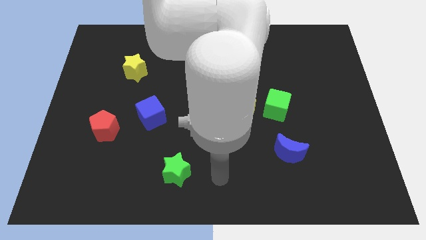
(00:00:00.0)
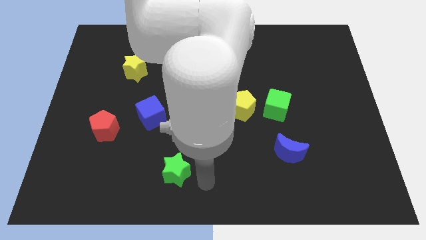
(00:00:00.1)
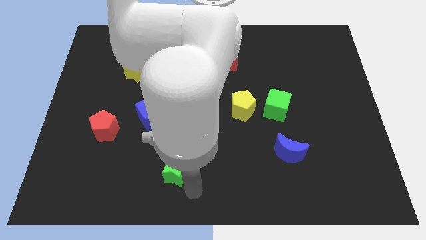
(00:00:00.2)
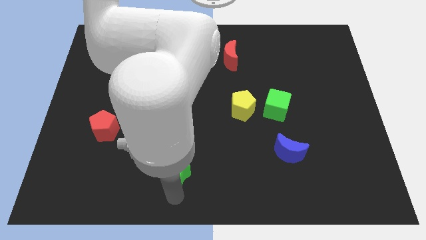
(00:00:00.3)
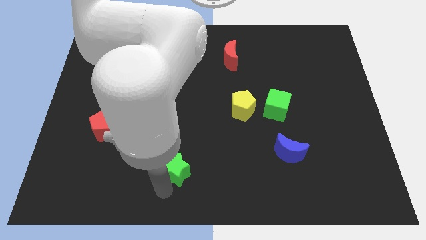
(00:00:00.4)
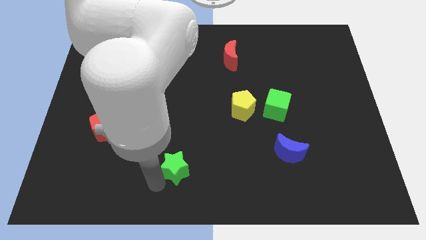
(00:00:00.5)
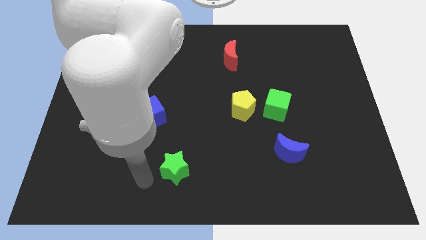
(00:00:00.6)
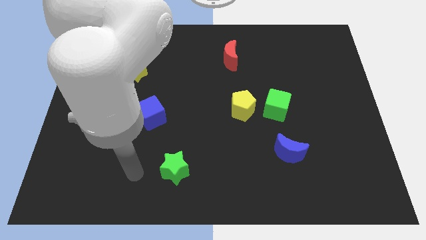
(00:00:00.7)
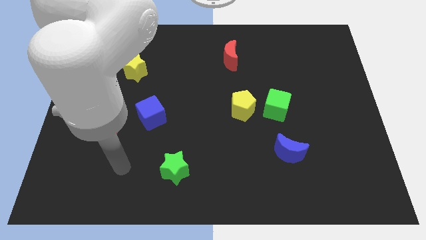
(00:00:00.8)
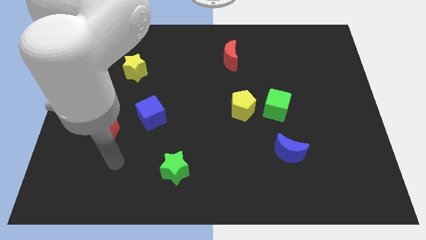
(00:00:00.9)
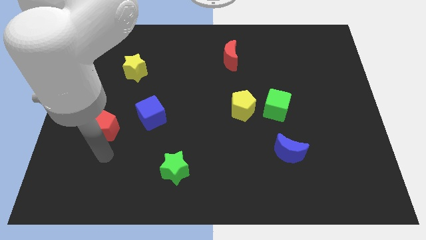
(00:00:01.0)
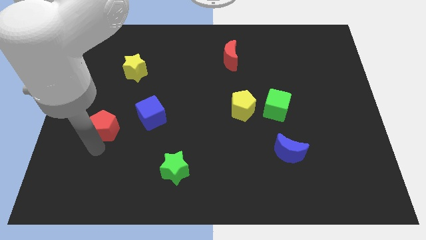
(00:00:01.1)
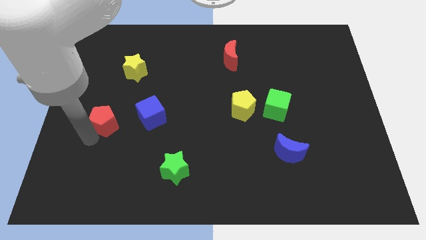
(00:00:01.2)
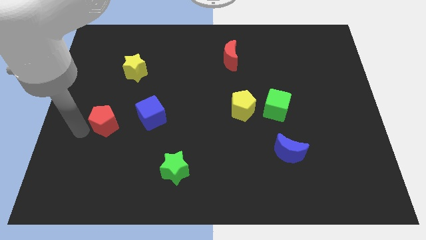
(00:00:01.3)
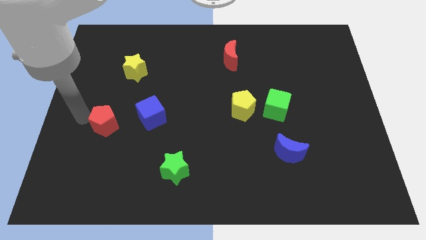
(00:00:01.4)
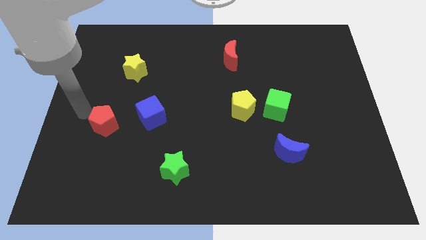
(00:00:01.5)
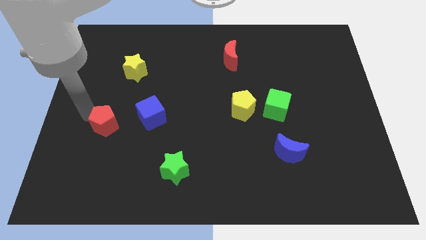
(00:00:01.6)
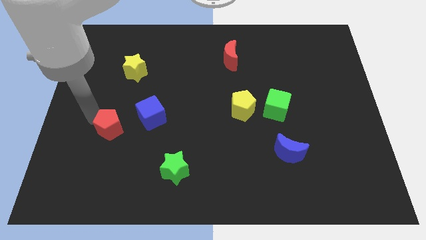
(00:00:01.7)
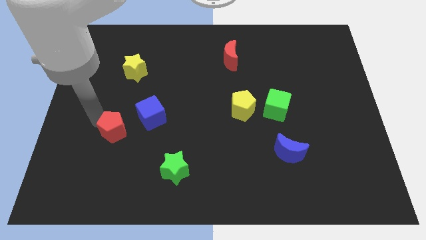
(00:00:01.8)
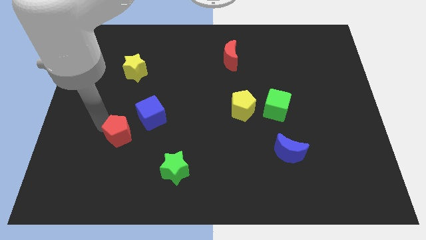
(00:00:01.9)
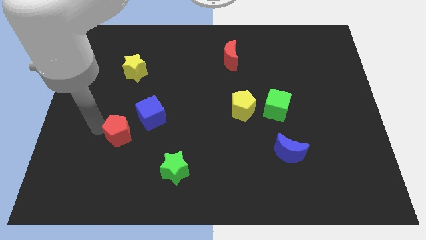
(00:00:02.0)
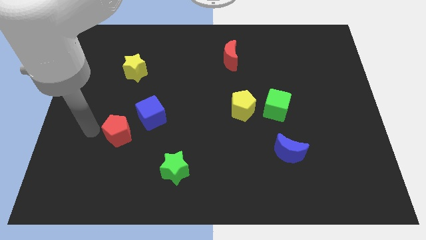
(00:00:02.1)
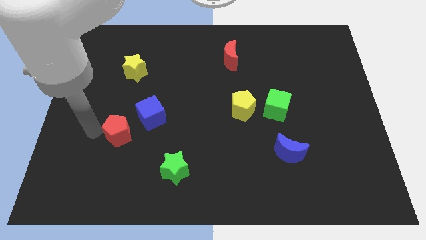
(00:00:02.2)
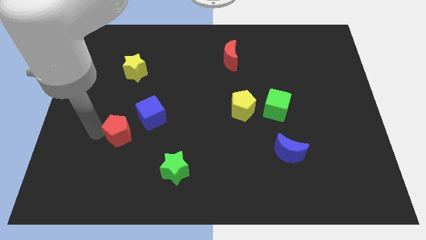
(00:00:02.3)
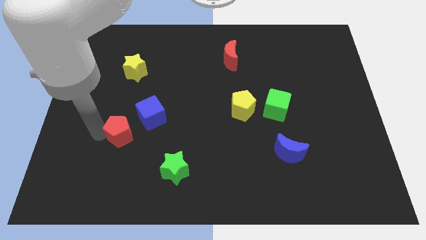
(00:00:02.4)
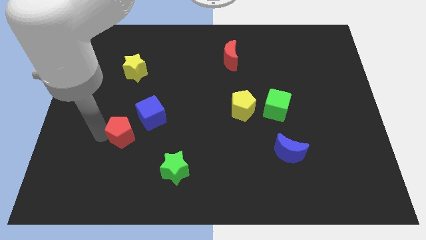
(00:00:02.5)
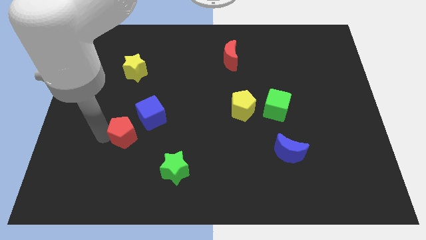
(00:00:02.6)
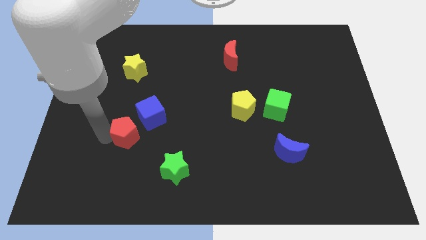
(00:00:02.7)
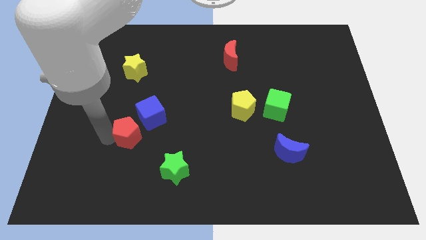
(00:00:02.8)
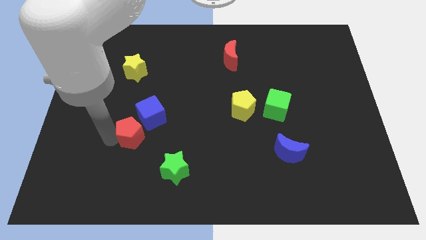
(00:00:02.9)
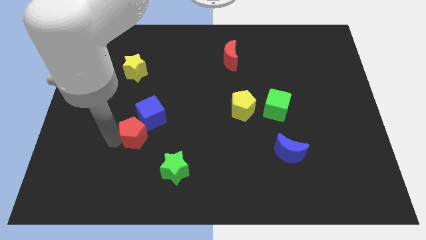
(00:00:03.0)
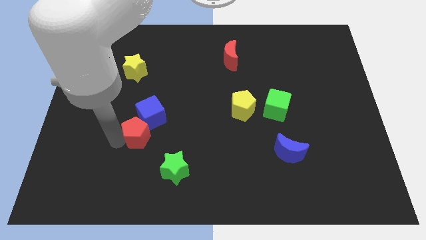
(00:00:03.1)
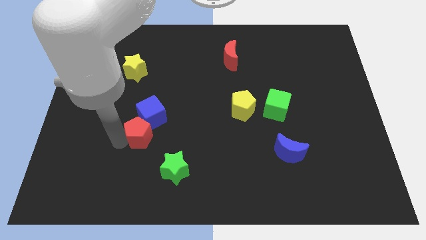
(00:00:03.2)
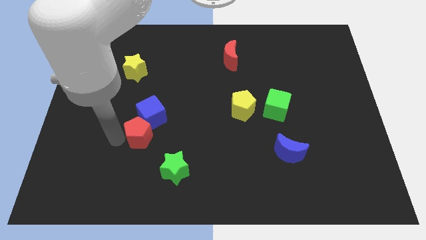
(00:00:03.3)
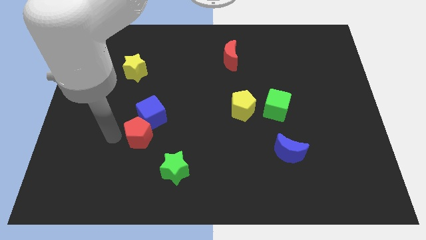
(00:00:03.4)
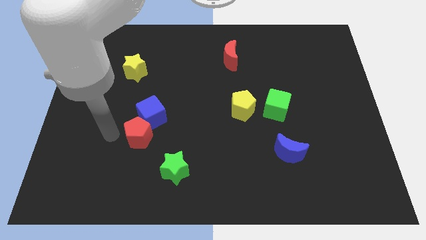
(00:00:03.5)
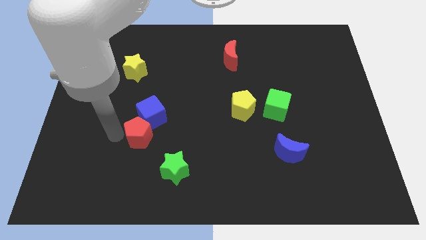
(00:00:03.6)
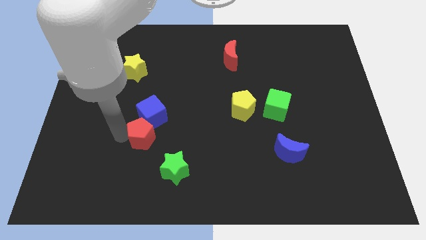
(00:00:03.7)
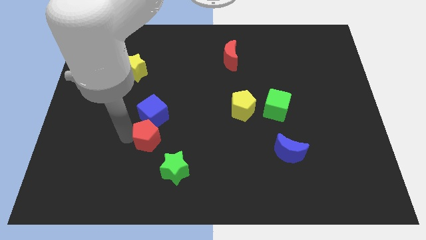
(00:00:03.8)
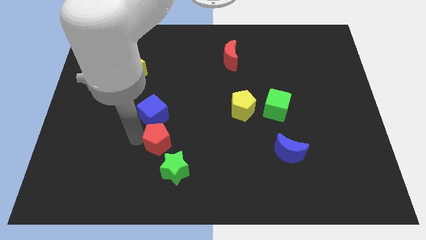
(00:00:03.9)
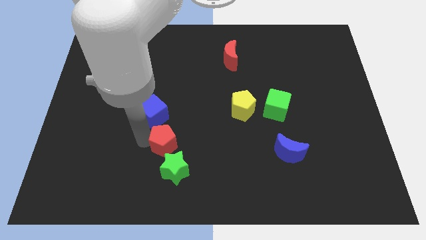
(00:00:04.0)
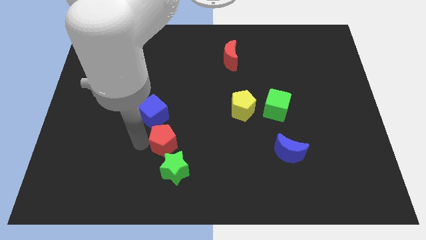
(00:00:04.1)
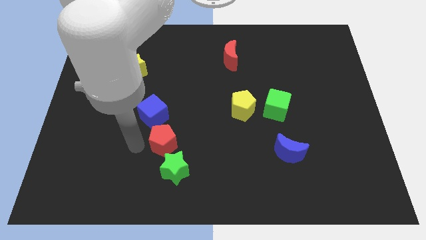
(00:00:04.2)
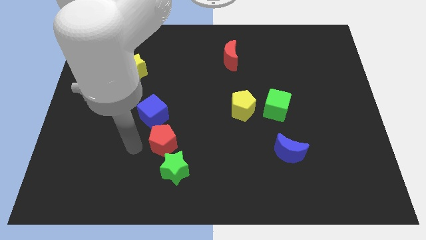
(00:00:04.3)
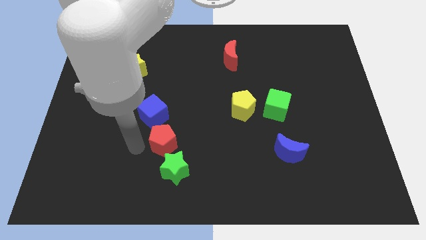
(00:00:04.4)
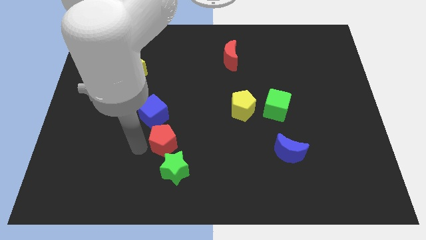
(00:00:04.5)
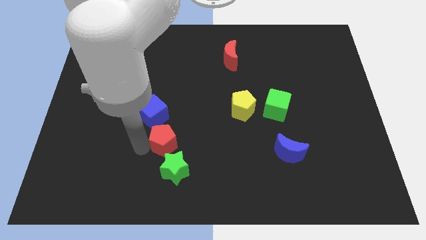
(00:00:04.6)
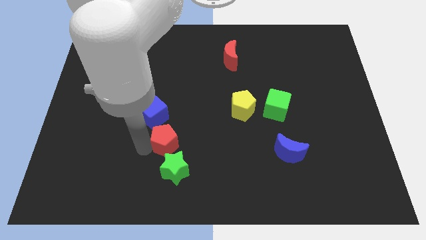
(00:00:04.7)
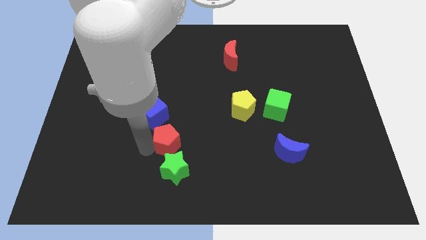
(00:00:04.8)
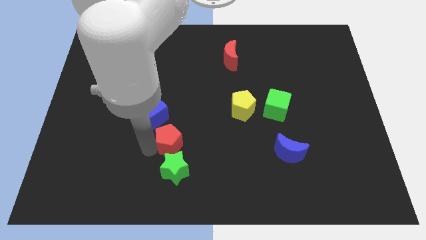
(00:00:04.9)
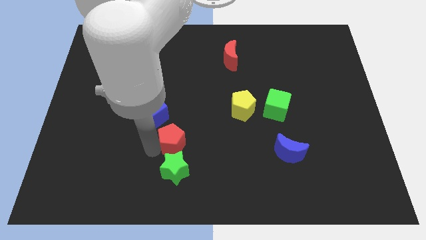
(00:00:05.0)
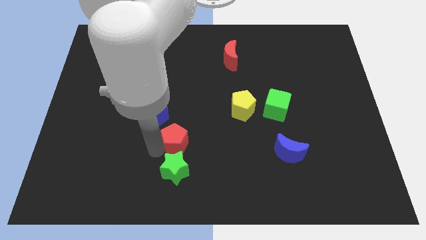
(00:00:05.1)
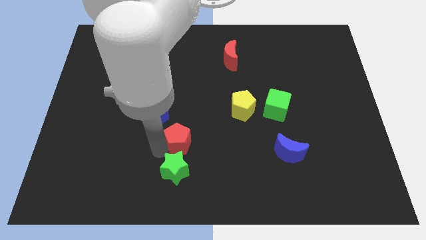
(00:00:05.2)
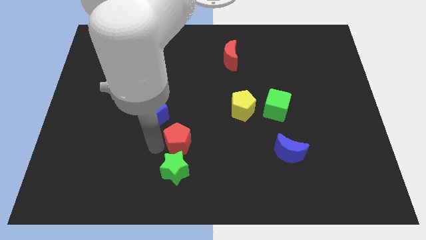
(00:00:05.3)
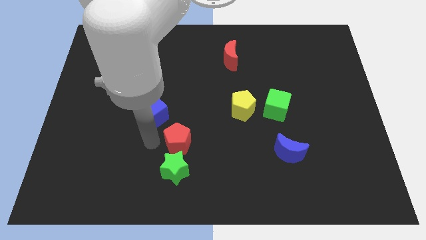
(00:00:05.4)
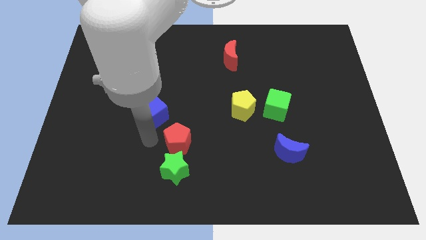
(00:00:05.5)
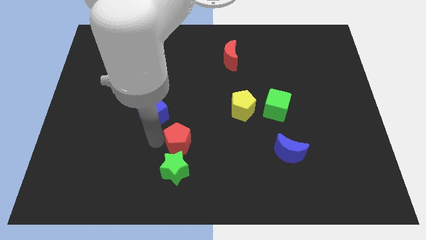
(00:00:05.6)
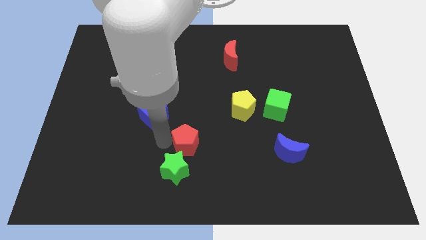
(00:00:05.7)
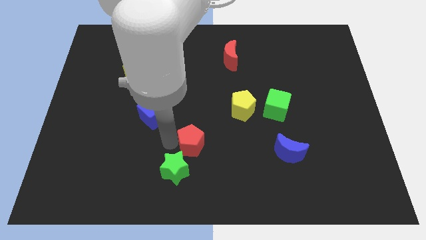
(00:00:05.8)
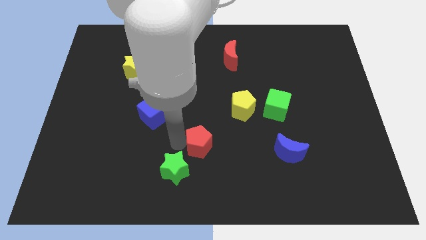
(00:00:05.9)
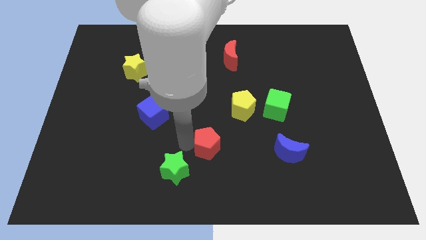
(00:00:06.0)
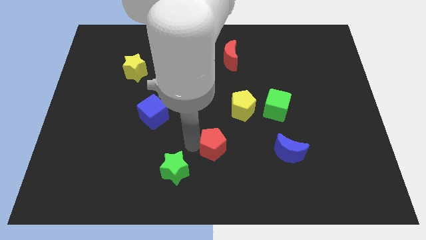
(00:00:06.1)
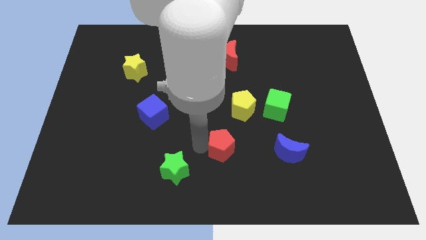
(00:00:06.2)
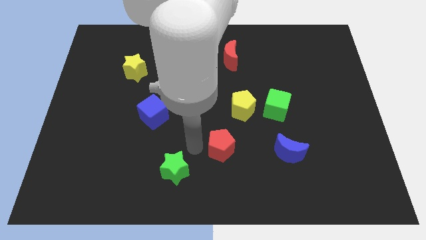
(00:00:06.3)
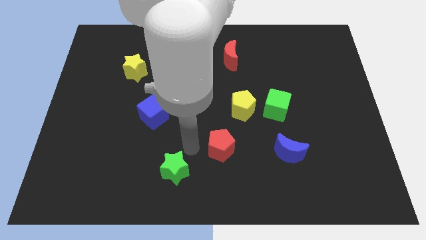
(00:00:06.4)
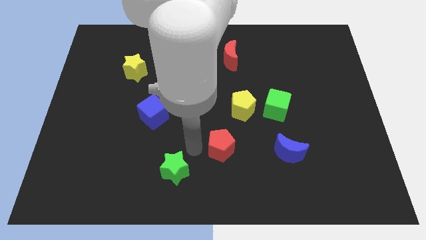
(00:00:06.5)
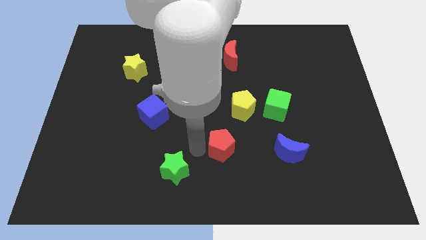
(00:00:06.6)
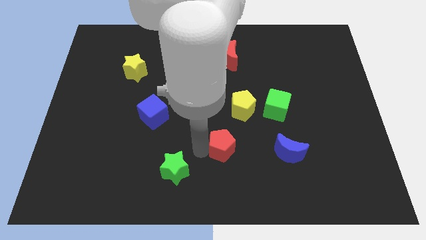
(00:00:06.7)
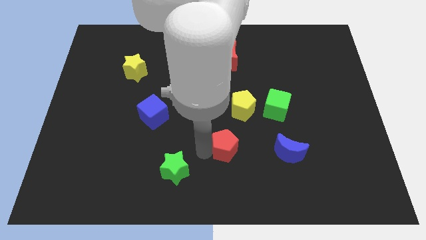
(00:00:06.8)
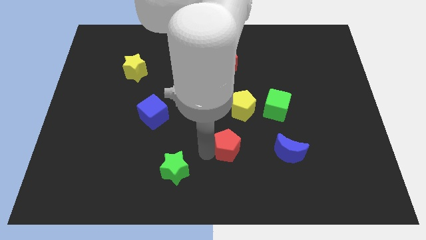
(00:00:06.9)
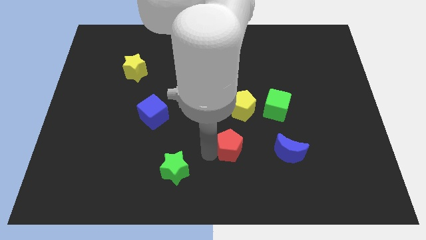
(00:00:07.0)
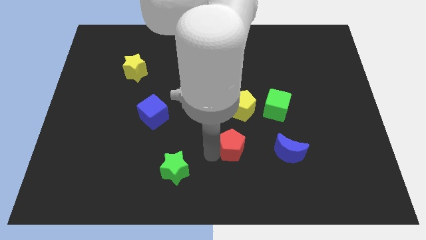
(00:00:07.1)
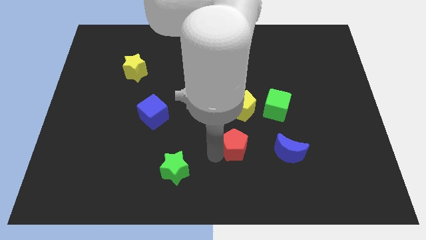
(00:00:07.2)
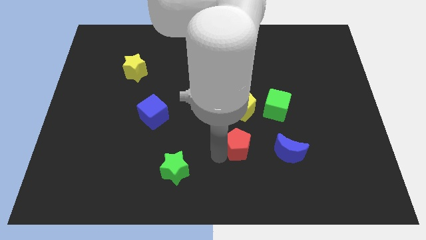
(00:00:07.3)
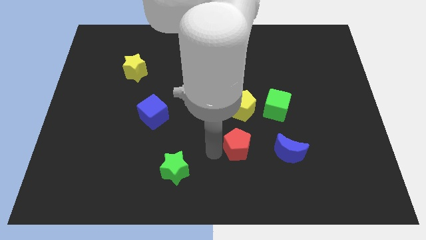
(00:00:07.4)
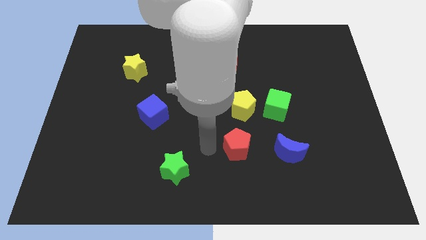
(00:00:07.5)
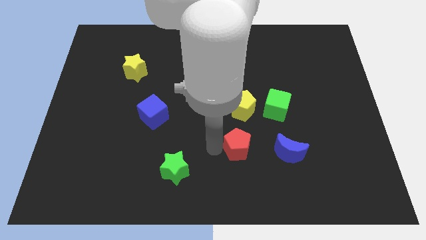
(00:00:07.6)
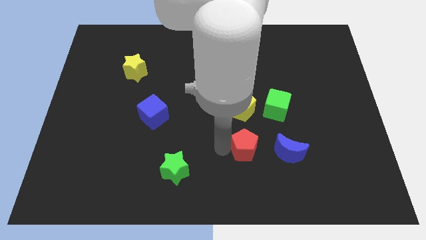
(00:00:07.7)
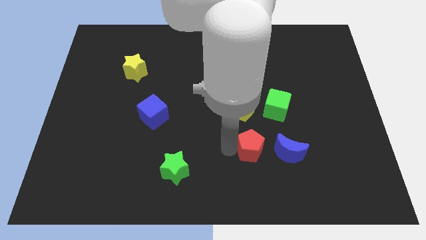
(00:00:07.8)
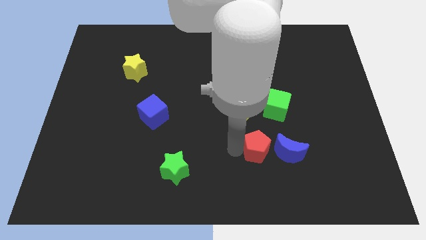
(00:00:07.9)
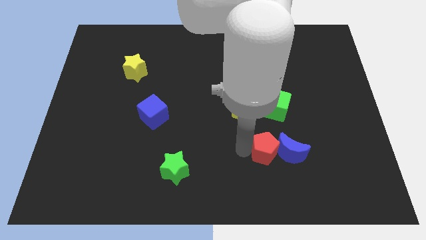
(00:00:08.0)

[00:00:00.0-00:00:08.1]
put the red pentagon close to the blue moon
